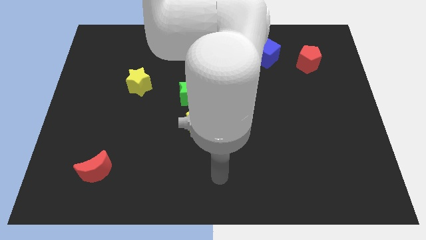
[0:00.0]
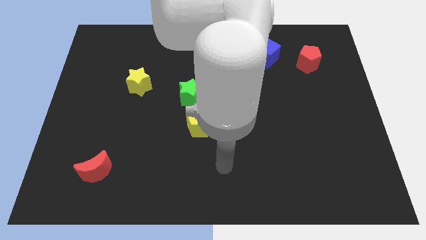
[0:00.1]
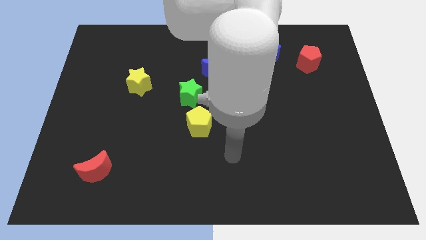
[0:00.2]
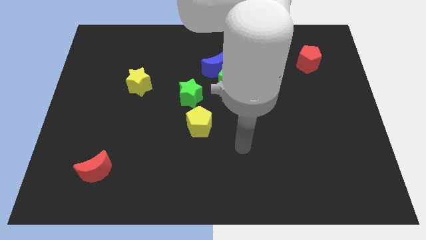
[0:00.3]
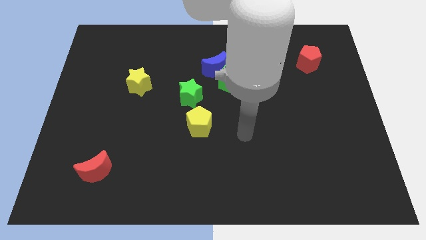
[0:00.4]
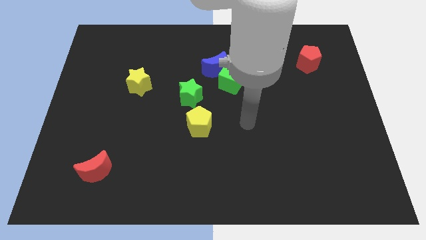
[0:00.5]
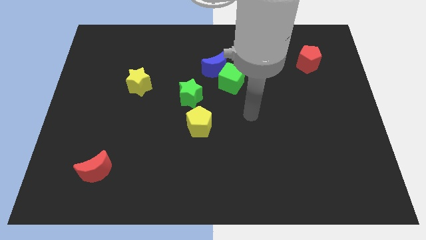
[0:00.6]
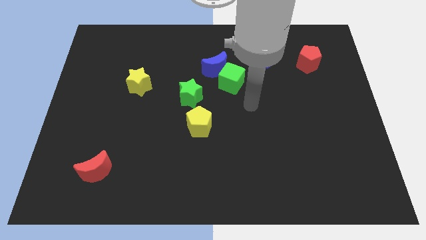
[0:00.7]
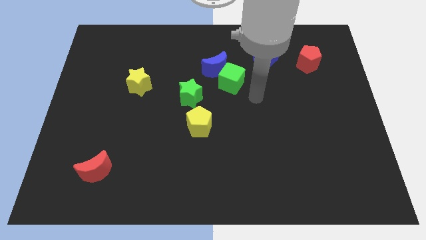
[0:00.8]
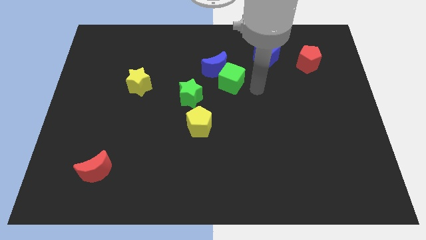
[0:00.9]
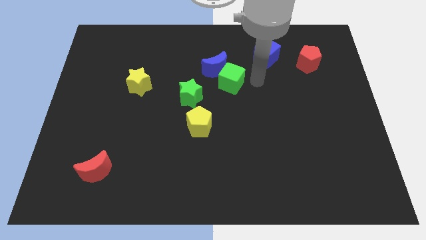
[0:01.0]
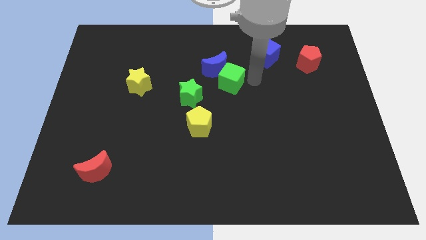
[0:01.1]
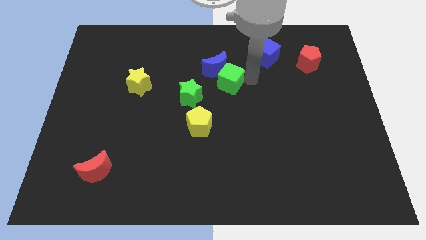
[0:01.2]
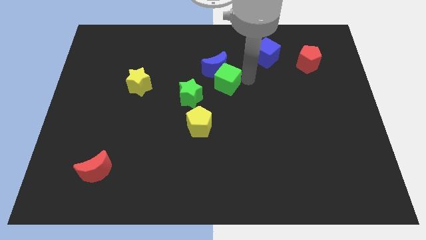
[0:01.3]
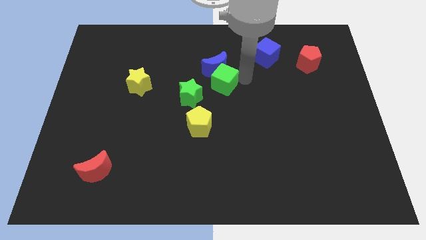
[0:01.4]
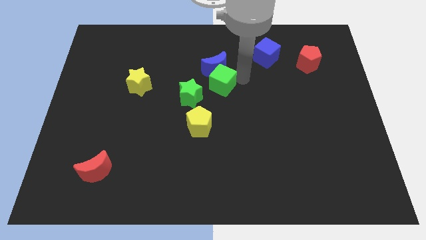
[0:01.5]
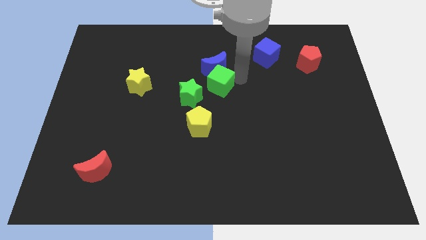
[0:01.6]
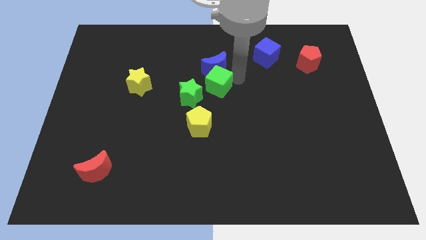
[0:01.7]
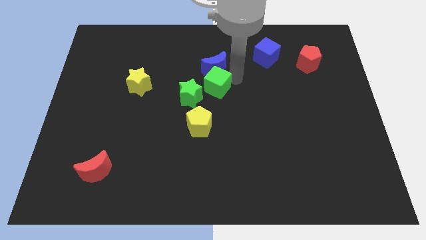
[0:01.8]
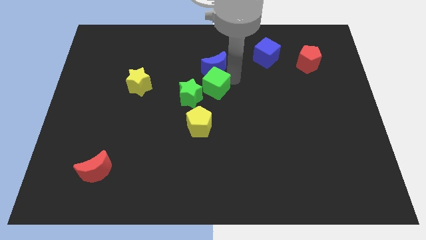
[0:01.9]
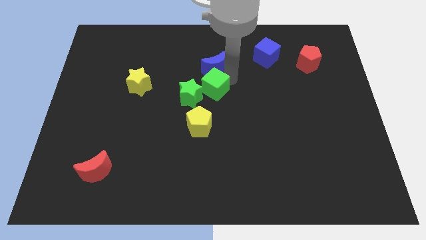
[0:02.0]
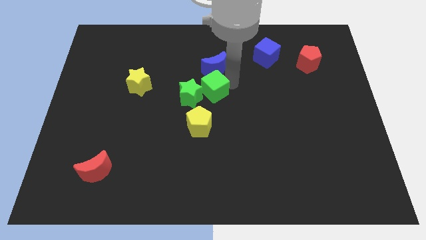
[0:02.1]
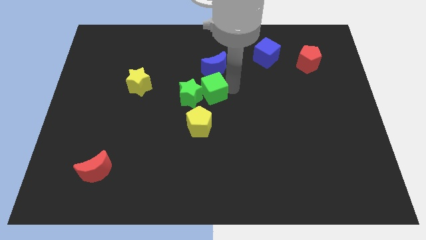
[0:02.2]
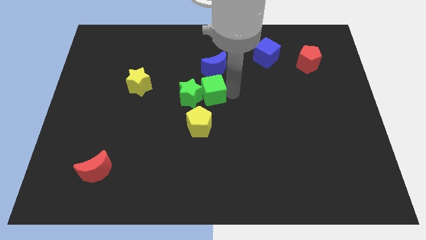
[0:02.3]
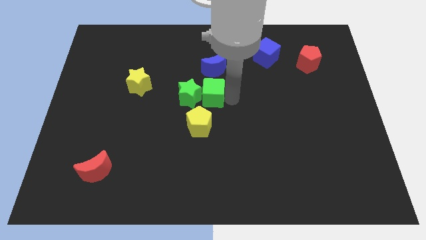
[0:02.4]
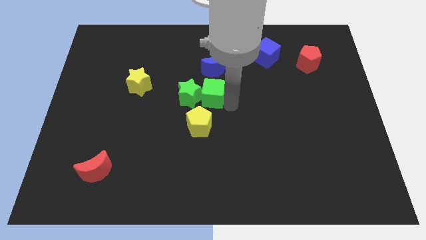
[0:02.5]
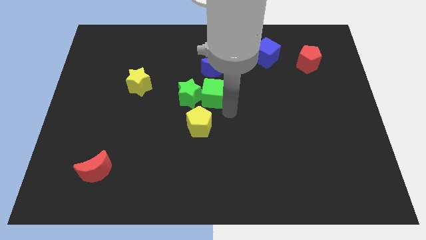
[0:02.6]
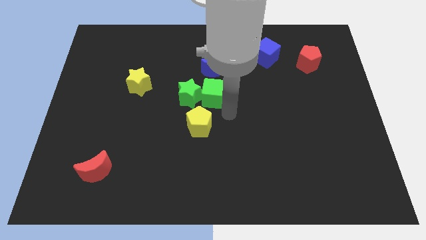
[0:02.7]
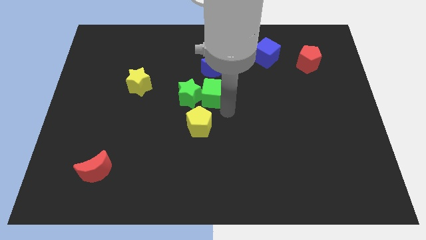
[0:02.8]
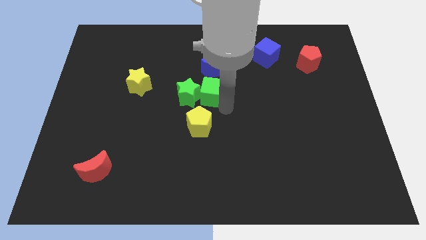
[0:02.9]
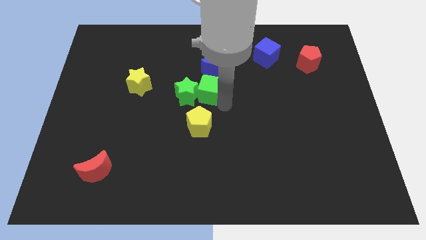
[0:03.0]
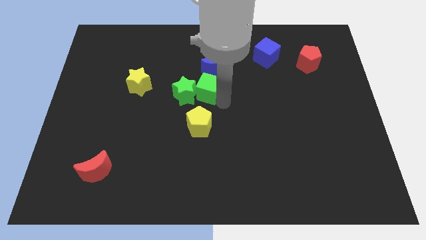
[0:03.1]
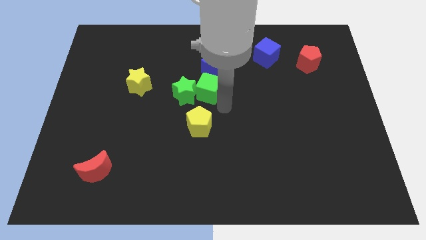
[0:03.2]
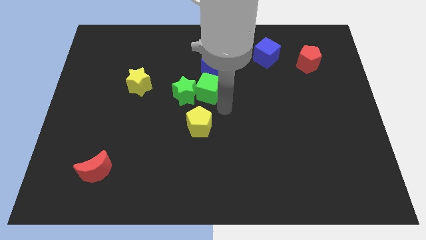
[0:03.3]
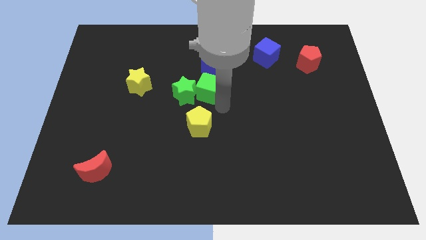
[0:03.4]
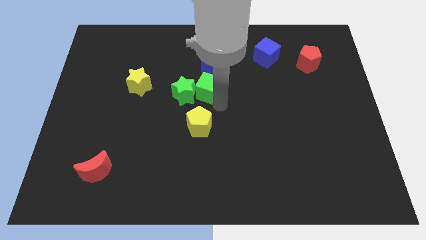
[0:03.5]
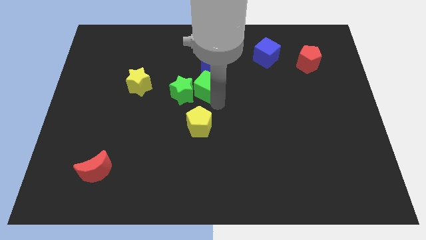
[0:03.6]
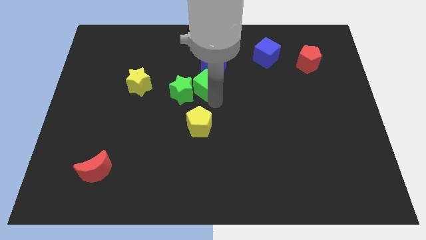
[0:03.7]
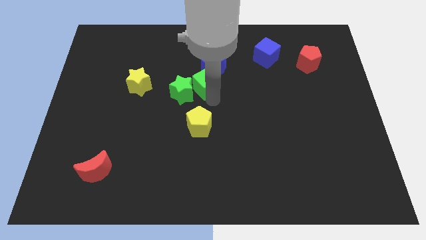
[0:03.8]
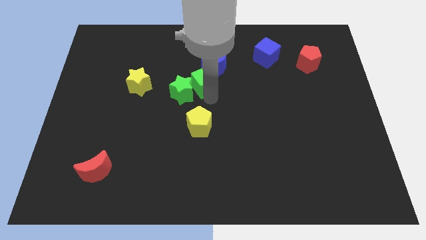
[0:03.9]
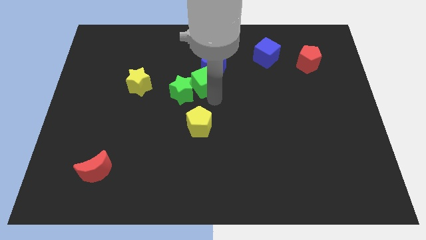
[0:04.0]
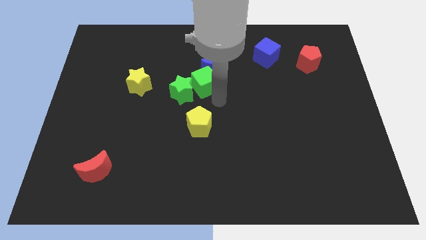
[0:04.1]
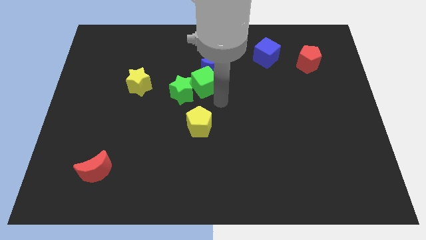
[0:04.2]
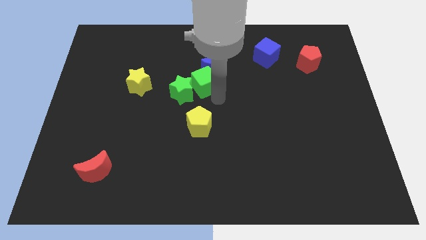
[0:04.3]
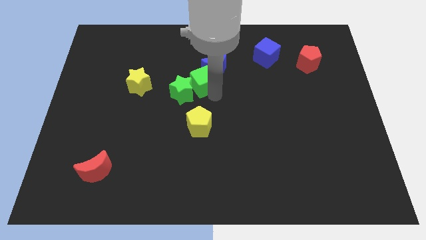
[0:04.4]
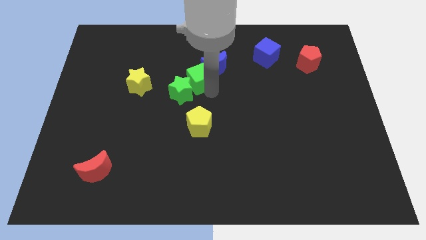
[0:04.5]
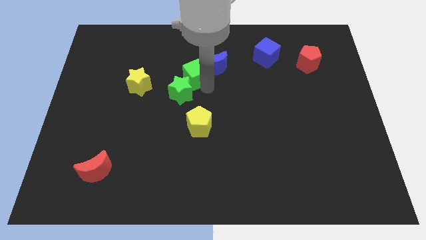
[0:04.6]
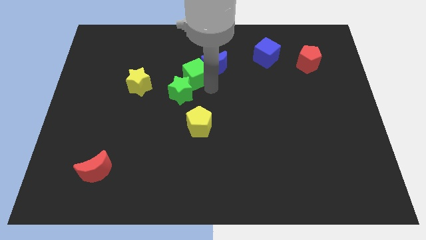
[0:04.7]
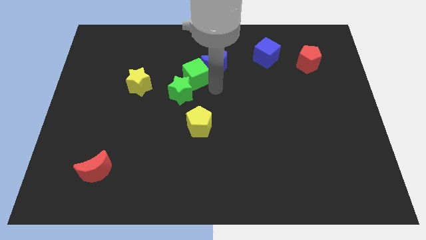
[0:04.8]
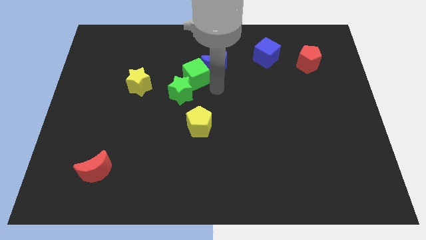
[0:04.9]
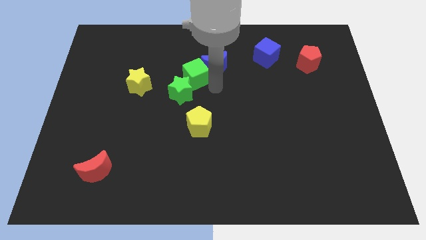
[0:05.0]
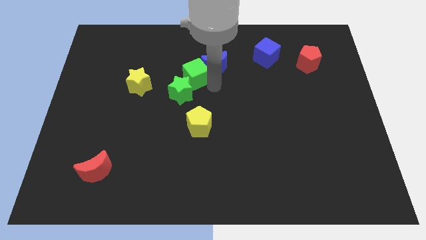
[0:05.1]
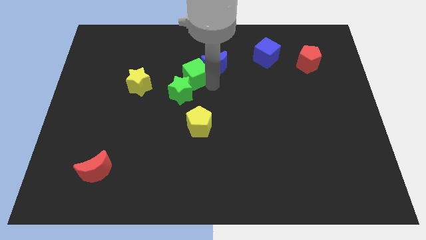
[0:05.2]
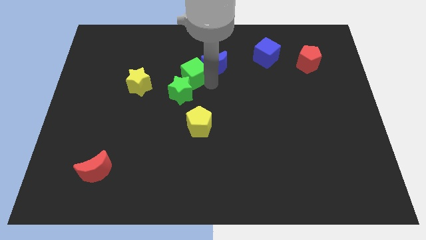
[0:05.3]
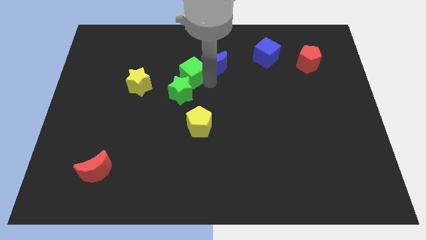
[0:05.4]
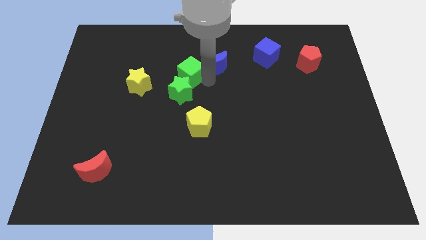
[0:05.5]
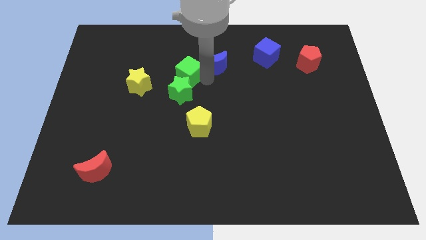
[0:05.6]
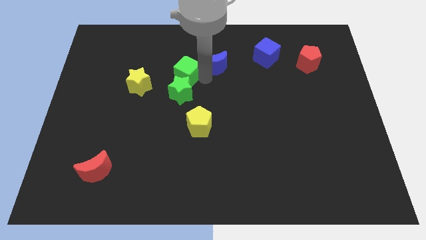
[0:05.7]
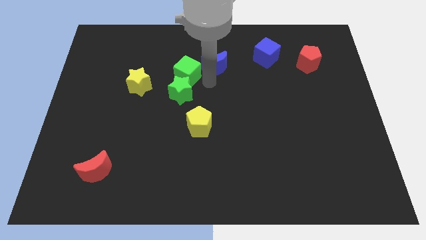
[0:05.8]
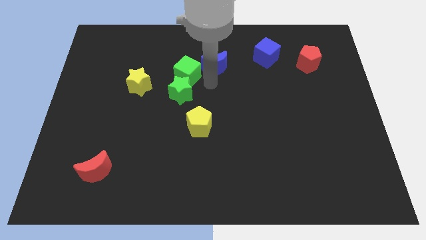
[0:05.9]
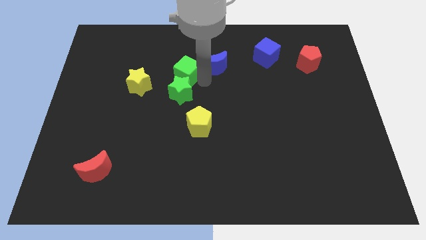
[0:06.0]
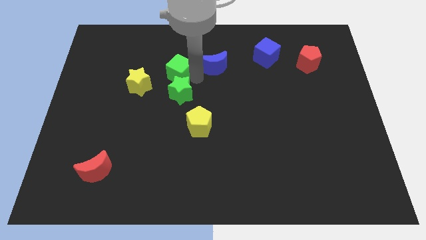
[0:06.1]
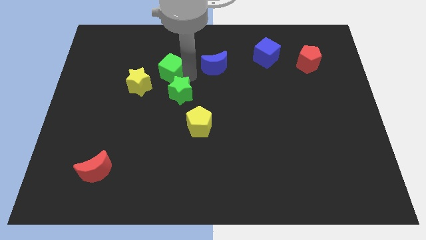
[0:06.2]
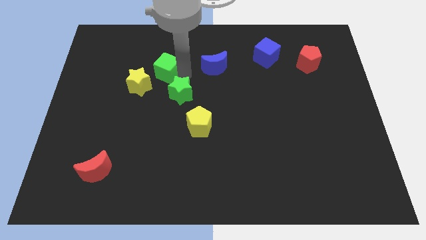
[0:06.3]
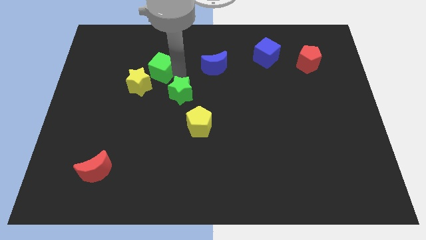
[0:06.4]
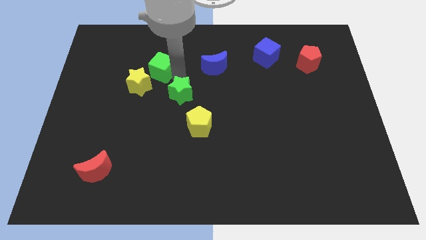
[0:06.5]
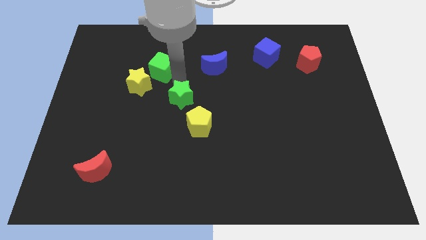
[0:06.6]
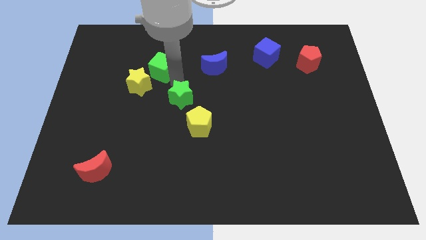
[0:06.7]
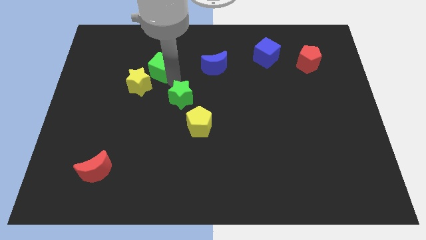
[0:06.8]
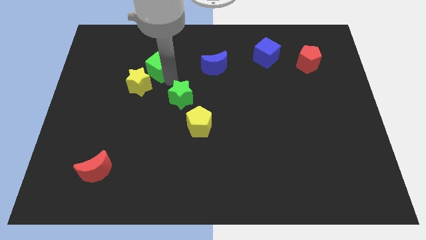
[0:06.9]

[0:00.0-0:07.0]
push the green cube to the top of the yellow star
